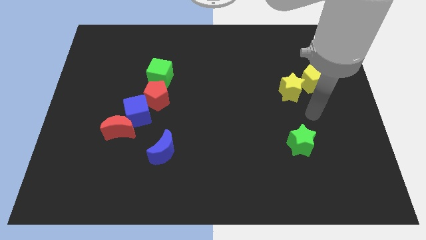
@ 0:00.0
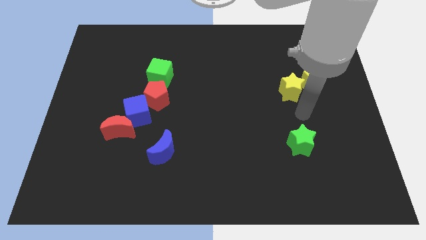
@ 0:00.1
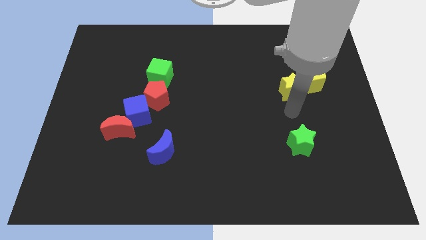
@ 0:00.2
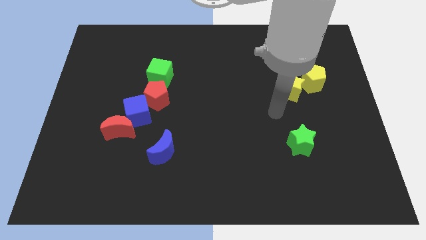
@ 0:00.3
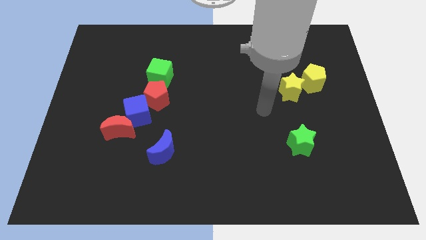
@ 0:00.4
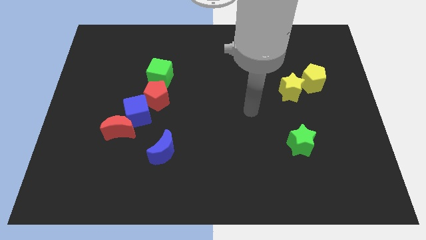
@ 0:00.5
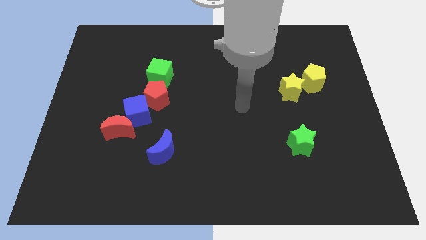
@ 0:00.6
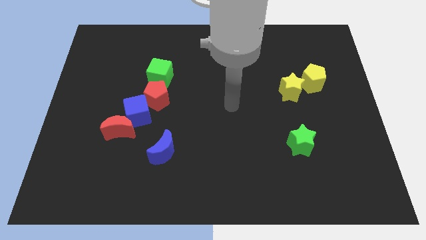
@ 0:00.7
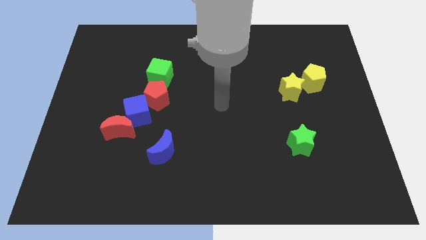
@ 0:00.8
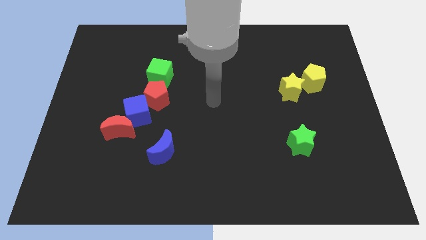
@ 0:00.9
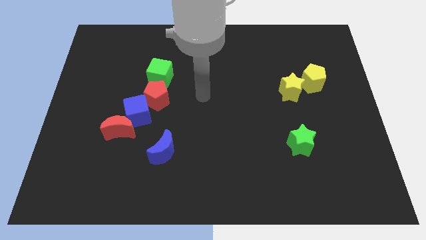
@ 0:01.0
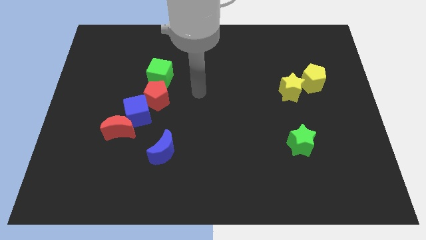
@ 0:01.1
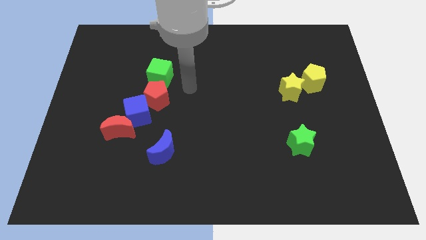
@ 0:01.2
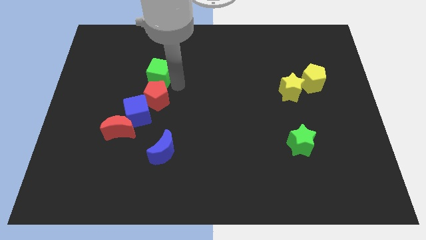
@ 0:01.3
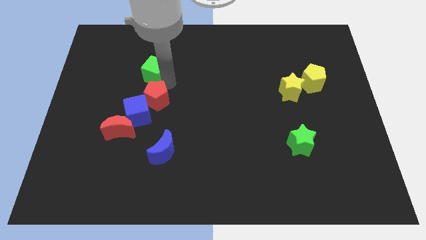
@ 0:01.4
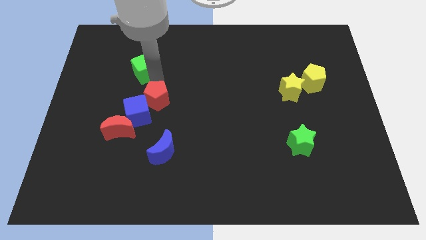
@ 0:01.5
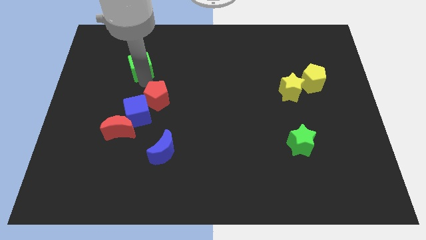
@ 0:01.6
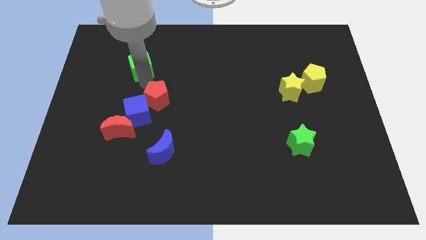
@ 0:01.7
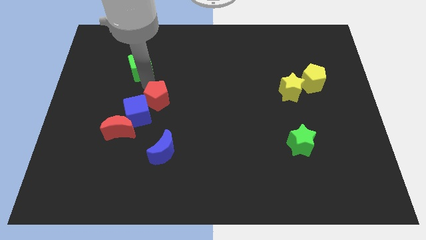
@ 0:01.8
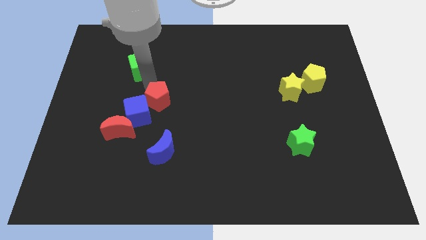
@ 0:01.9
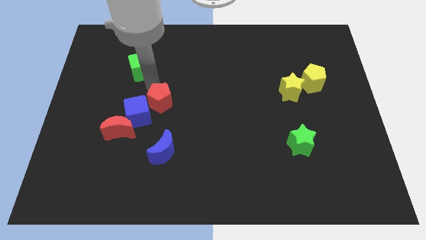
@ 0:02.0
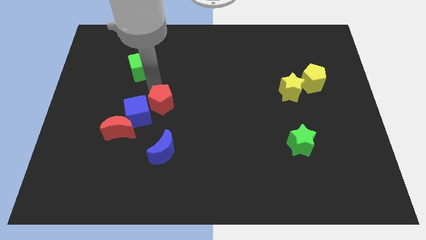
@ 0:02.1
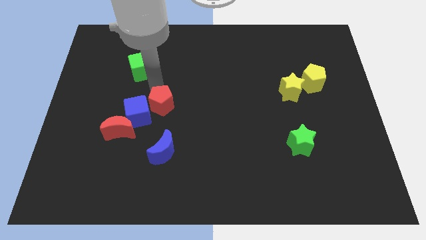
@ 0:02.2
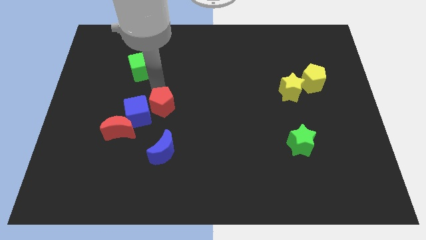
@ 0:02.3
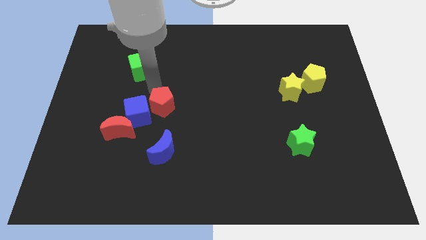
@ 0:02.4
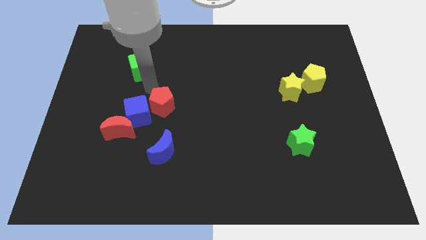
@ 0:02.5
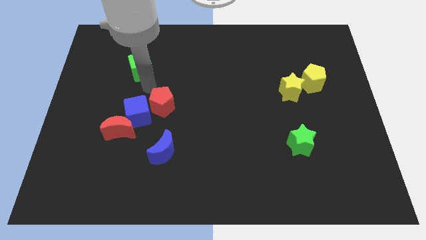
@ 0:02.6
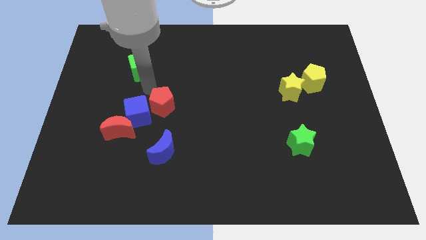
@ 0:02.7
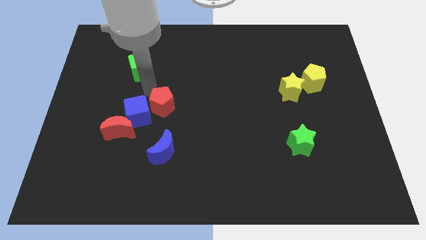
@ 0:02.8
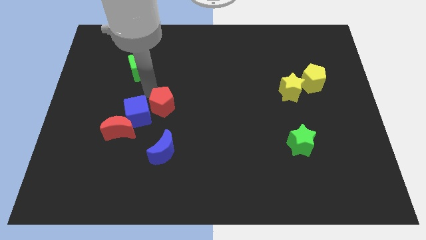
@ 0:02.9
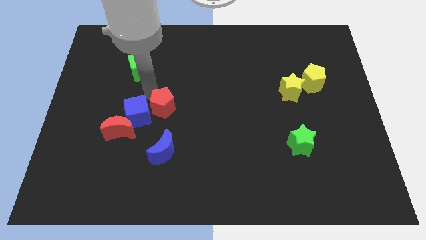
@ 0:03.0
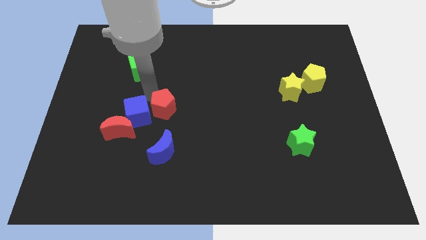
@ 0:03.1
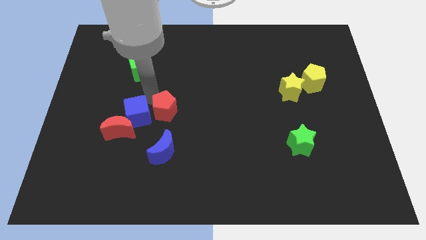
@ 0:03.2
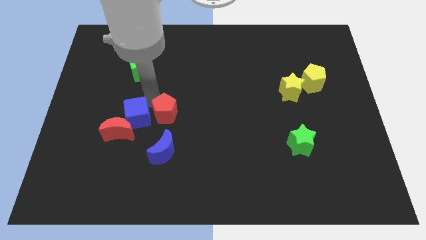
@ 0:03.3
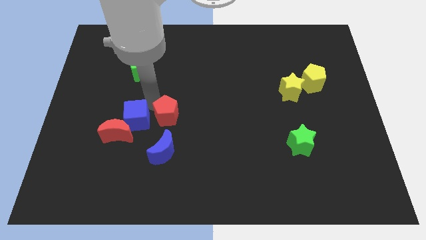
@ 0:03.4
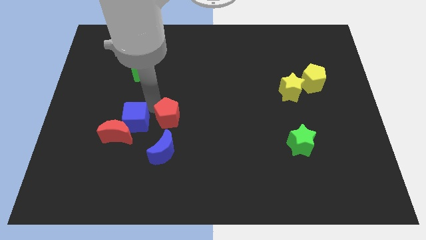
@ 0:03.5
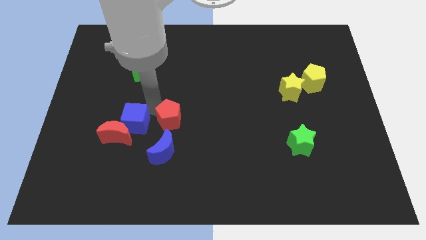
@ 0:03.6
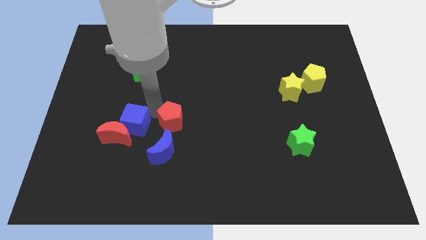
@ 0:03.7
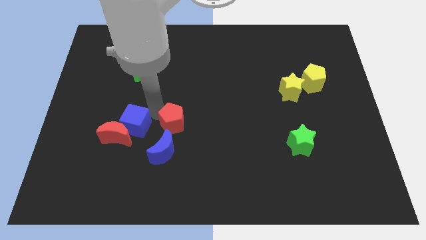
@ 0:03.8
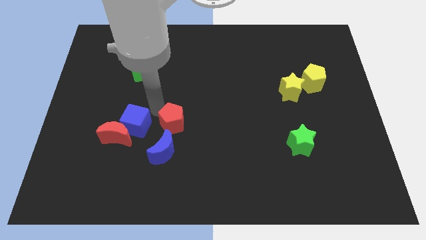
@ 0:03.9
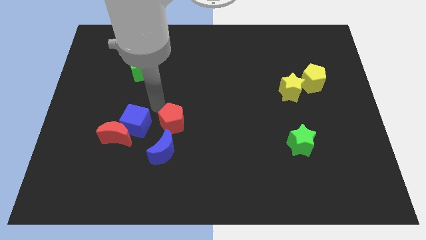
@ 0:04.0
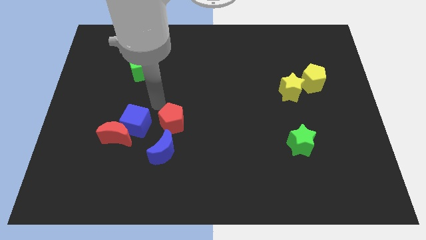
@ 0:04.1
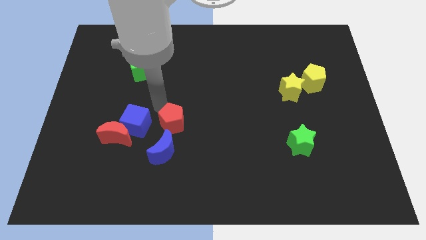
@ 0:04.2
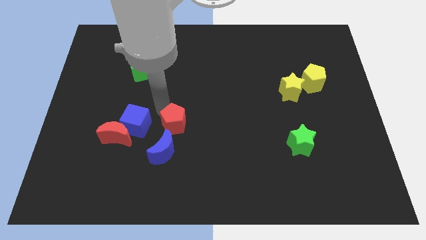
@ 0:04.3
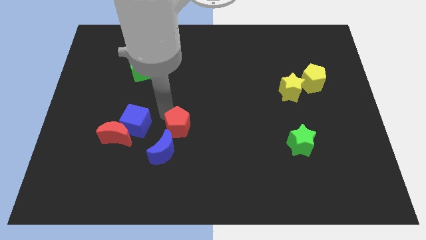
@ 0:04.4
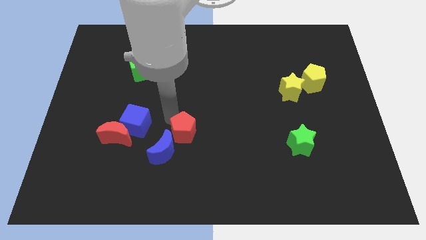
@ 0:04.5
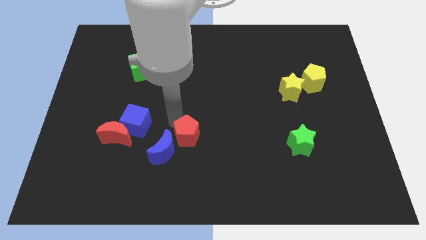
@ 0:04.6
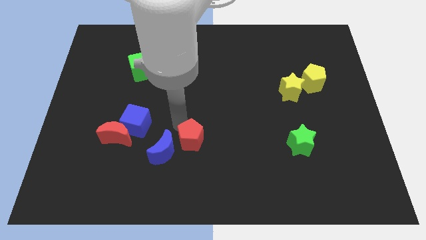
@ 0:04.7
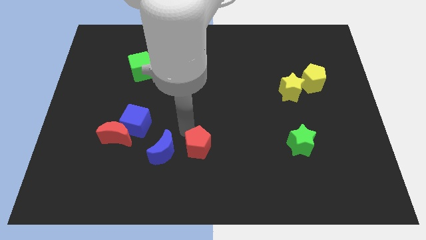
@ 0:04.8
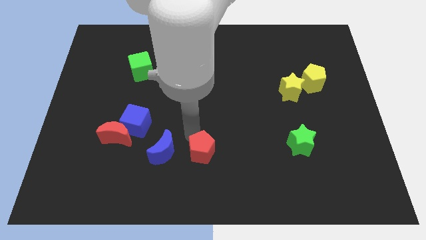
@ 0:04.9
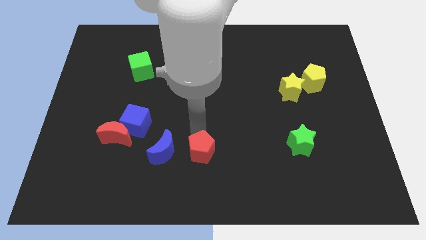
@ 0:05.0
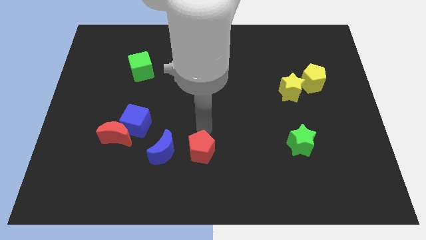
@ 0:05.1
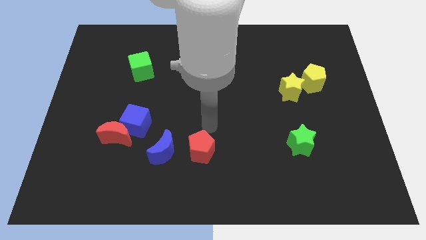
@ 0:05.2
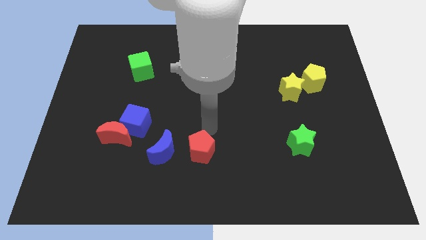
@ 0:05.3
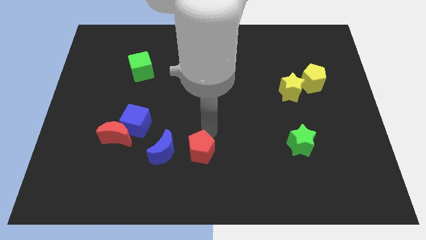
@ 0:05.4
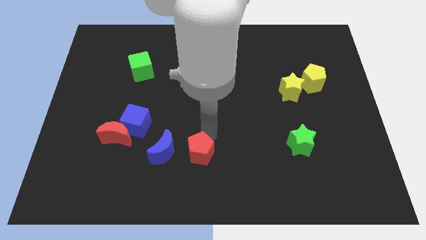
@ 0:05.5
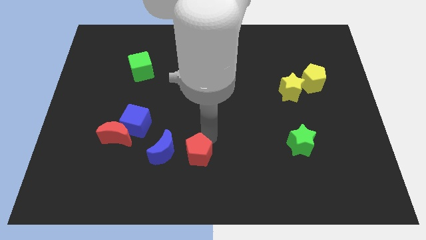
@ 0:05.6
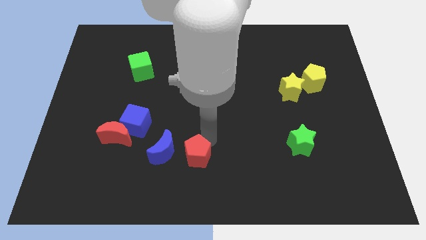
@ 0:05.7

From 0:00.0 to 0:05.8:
move the red pentagon to the bottom side

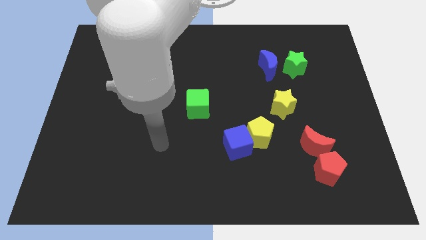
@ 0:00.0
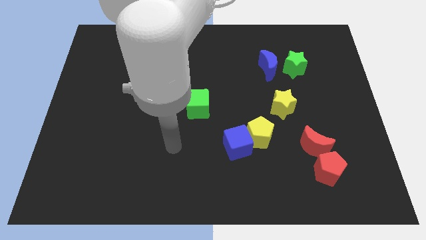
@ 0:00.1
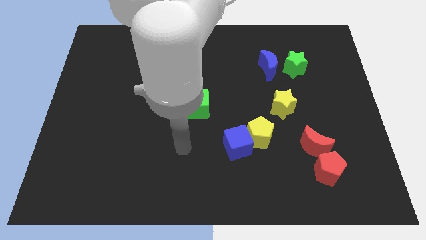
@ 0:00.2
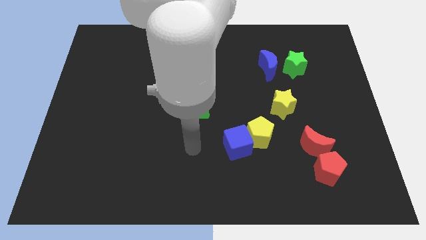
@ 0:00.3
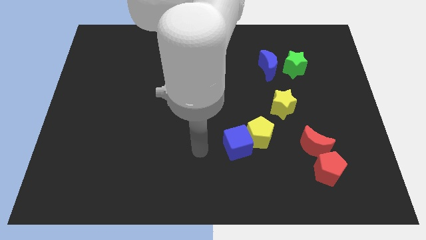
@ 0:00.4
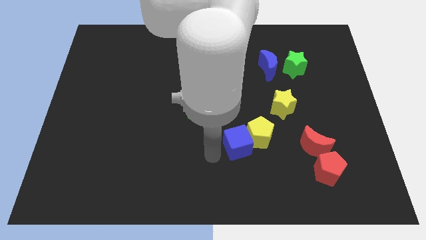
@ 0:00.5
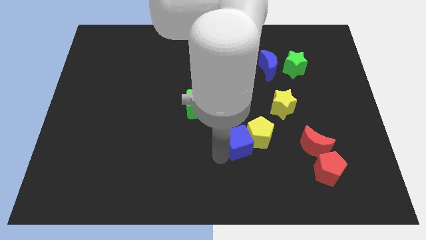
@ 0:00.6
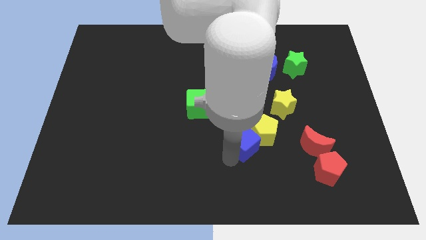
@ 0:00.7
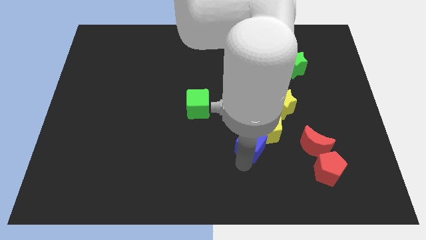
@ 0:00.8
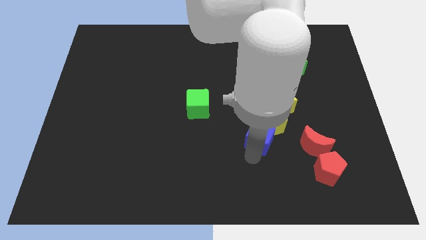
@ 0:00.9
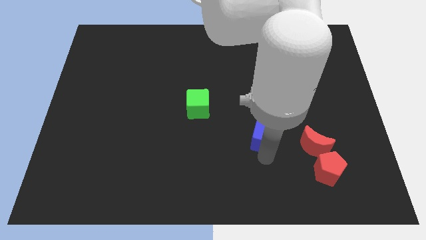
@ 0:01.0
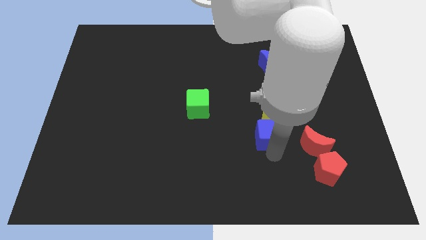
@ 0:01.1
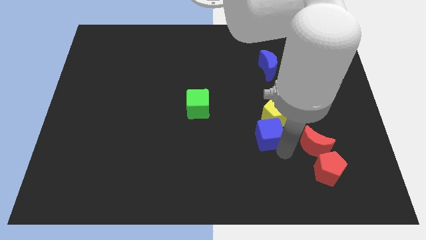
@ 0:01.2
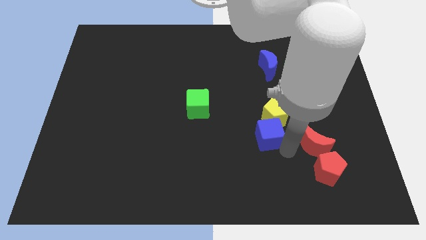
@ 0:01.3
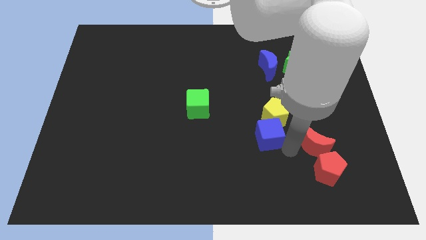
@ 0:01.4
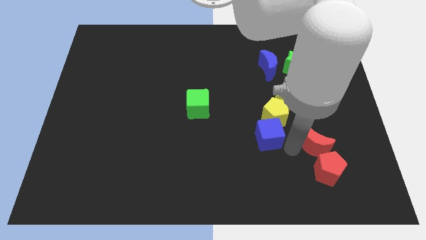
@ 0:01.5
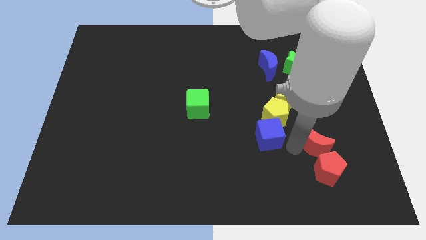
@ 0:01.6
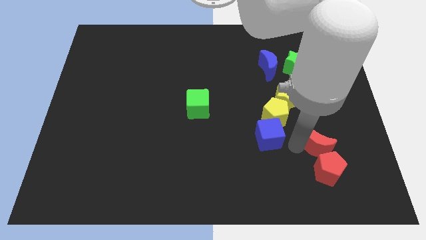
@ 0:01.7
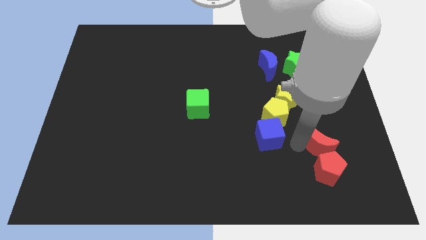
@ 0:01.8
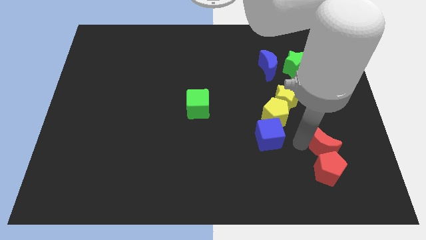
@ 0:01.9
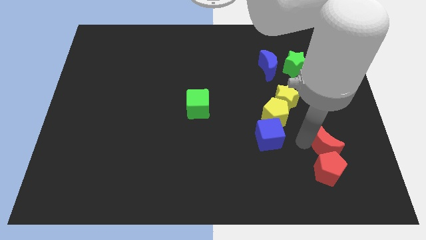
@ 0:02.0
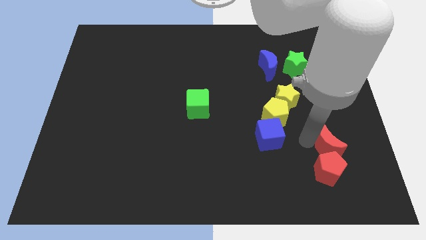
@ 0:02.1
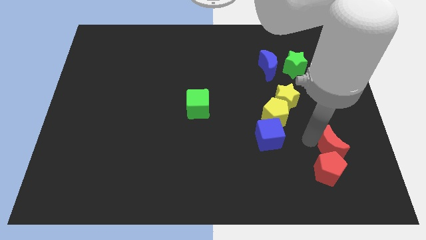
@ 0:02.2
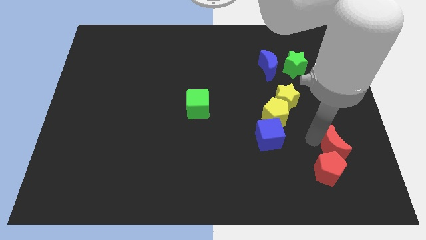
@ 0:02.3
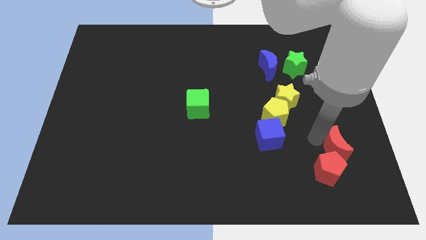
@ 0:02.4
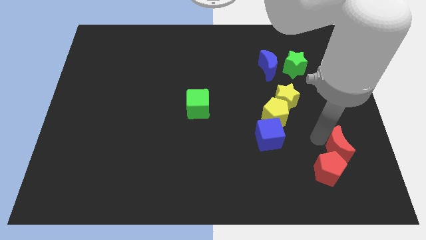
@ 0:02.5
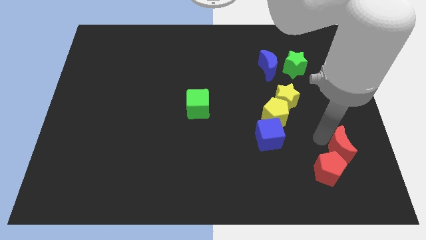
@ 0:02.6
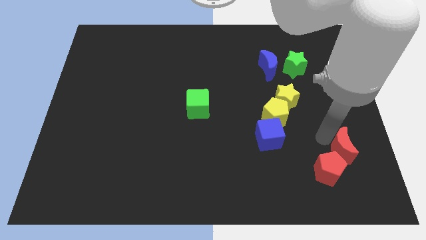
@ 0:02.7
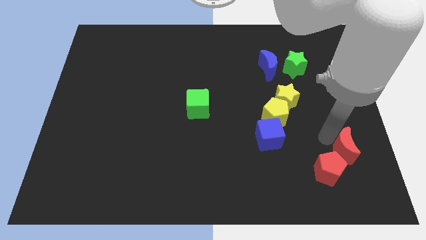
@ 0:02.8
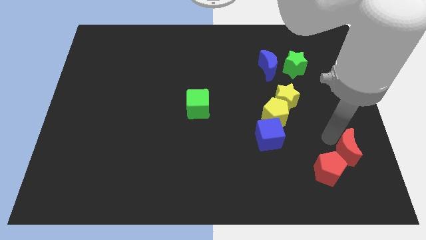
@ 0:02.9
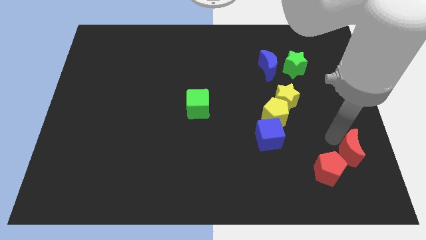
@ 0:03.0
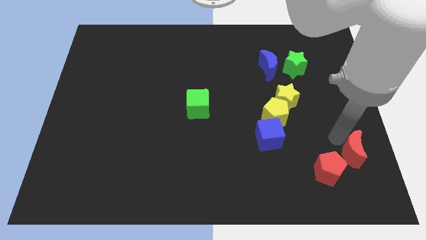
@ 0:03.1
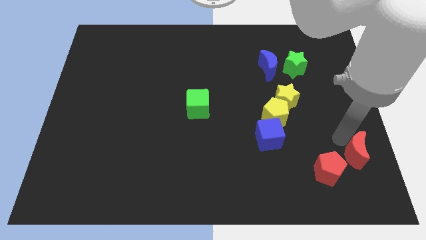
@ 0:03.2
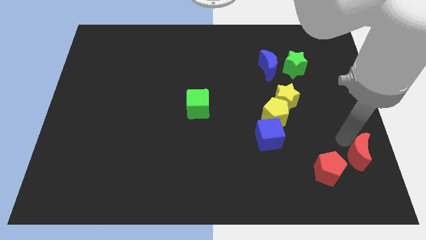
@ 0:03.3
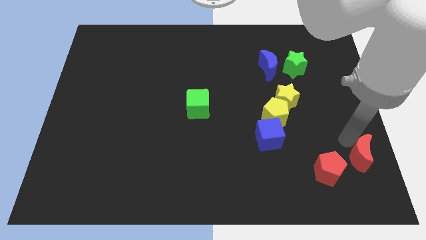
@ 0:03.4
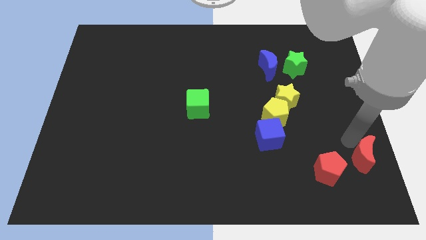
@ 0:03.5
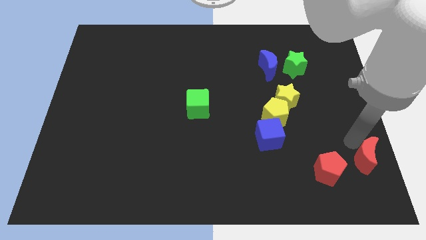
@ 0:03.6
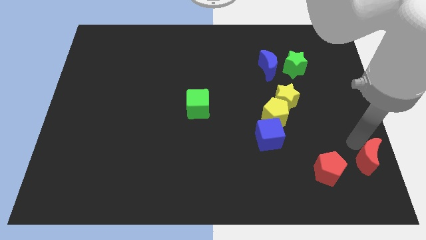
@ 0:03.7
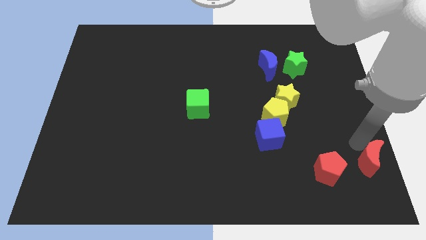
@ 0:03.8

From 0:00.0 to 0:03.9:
slide the red moon to the bottom right
